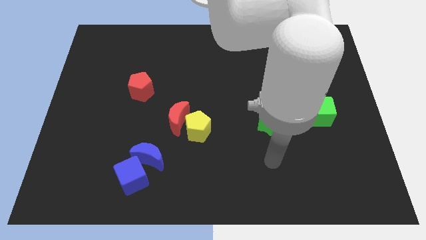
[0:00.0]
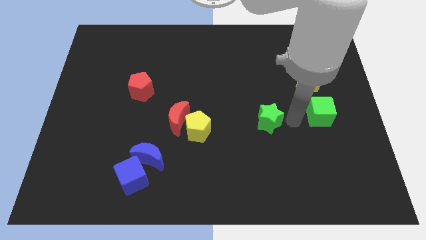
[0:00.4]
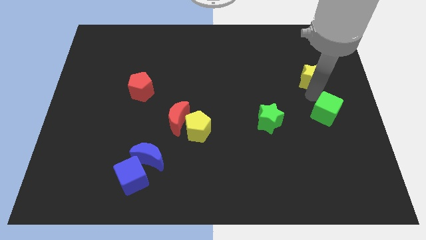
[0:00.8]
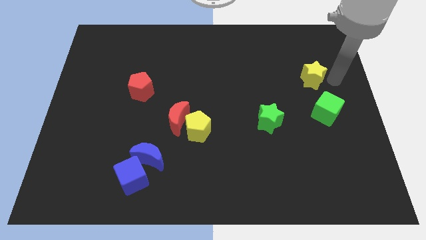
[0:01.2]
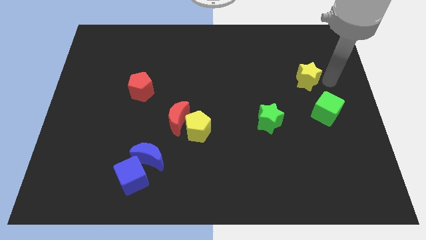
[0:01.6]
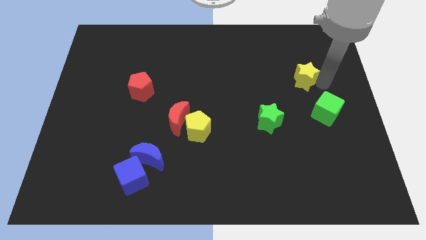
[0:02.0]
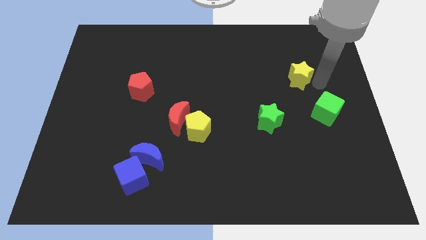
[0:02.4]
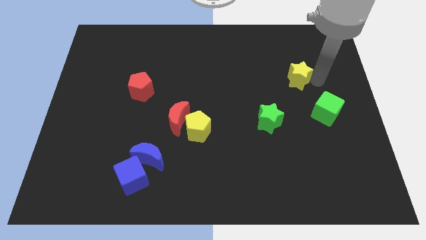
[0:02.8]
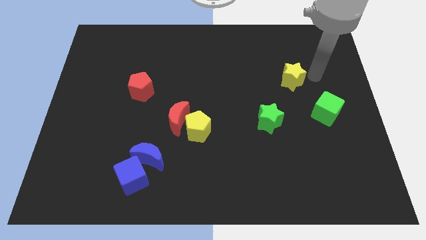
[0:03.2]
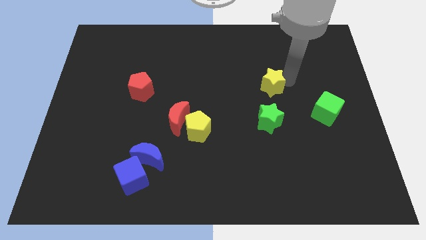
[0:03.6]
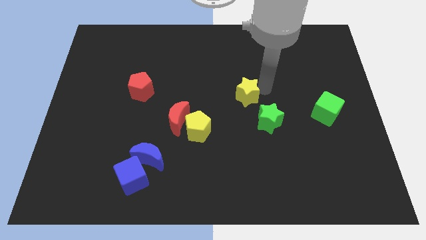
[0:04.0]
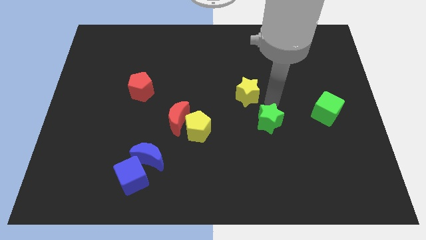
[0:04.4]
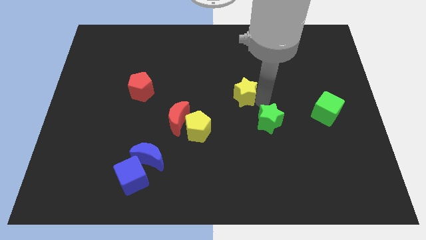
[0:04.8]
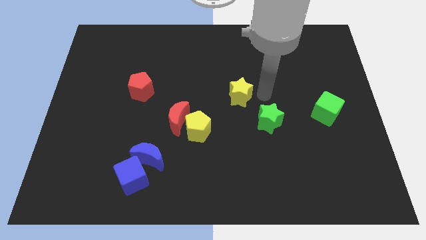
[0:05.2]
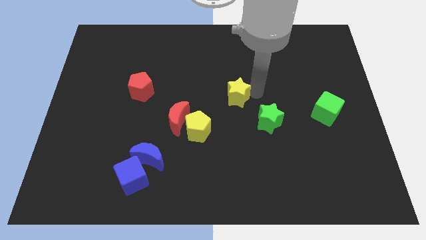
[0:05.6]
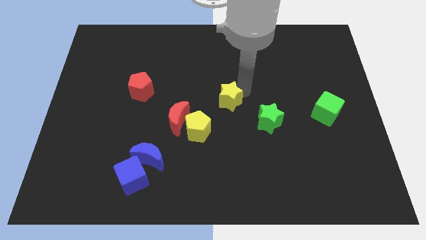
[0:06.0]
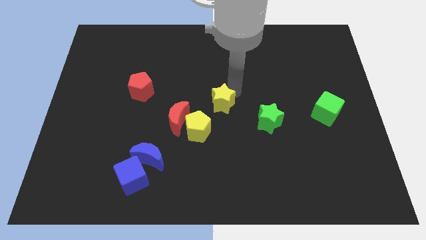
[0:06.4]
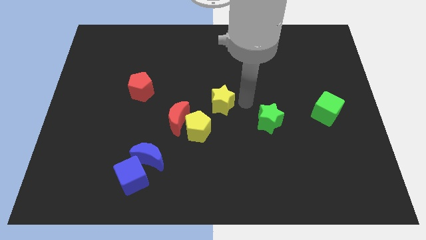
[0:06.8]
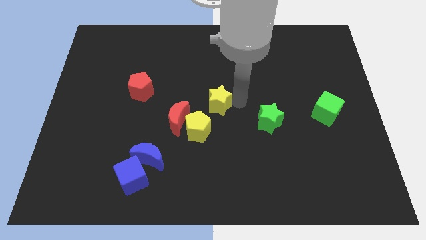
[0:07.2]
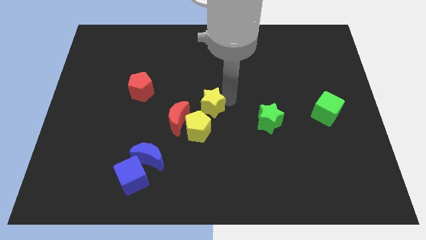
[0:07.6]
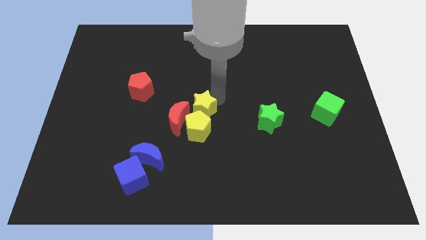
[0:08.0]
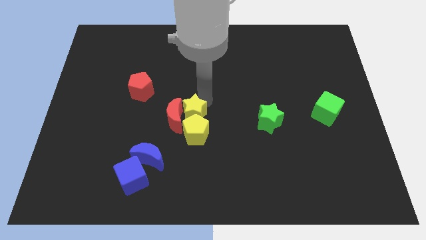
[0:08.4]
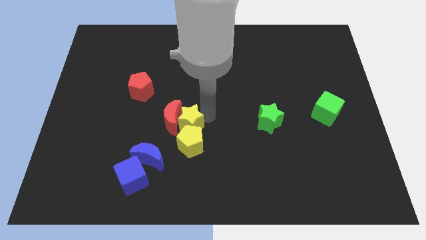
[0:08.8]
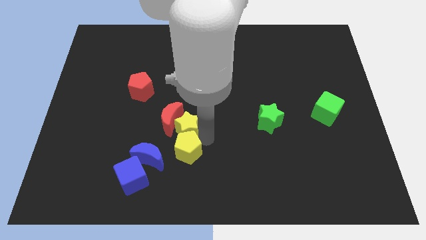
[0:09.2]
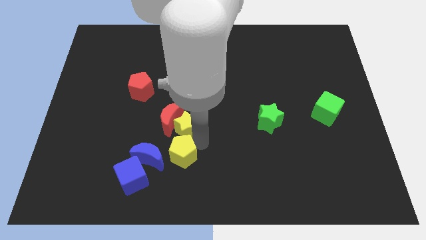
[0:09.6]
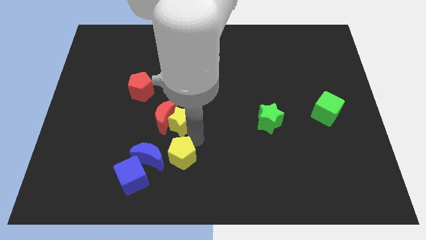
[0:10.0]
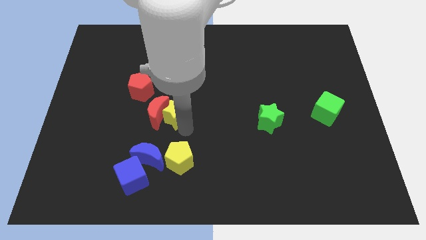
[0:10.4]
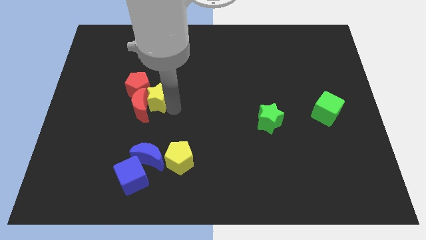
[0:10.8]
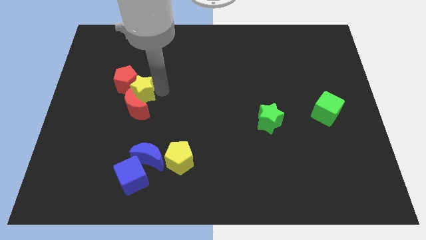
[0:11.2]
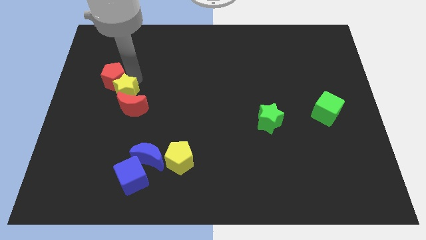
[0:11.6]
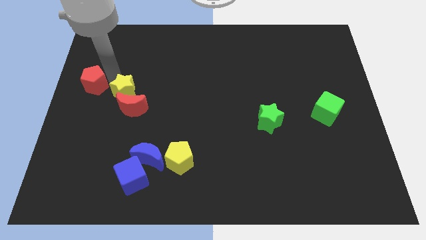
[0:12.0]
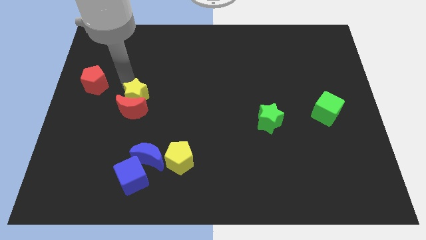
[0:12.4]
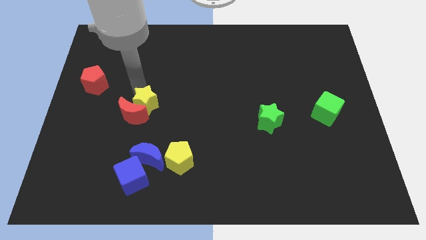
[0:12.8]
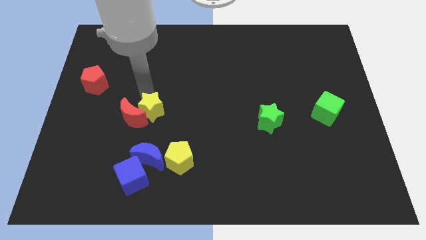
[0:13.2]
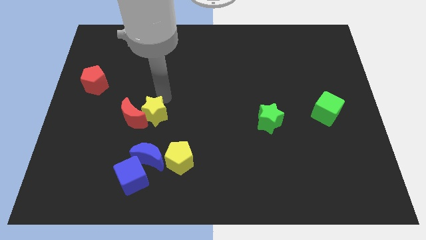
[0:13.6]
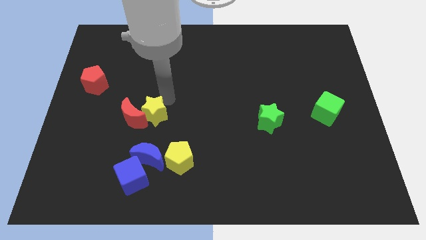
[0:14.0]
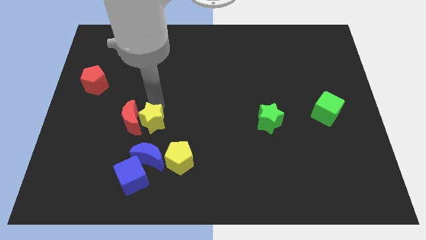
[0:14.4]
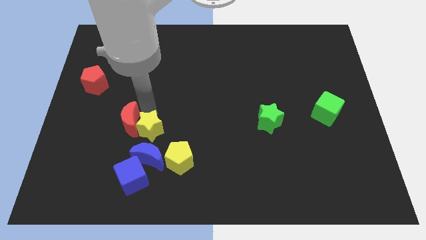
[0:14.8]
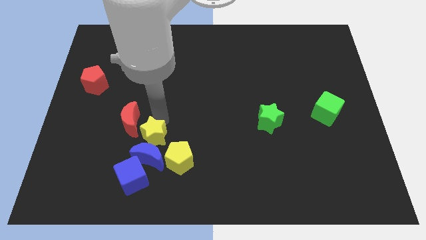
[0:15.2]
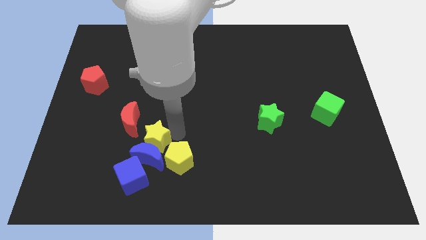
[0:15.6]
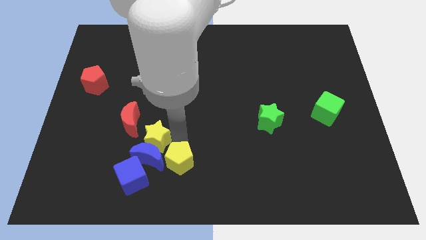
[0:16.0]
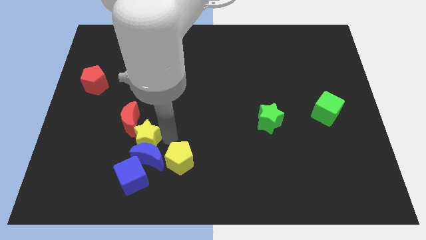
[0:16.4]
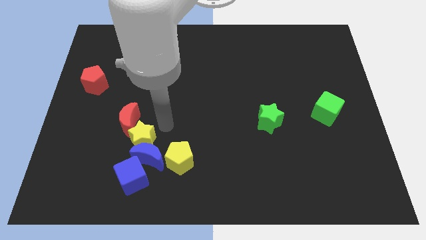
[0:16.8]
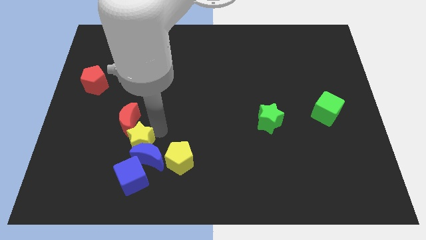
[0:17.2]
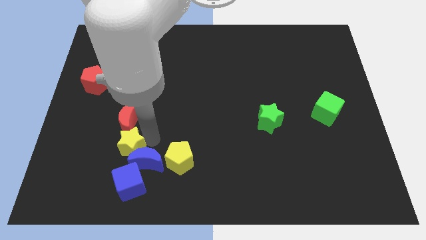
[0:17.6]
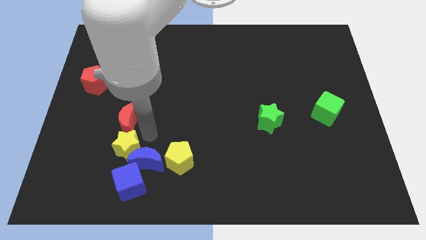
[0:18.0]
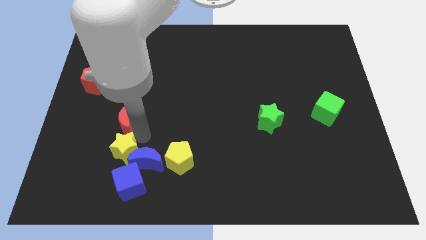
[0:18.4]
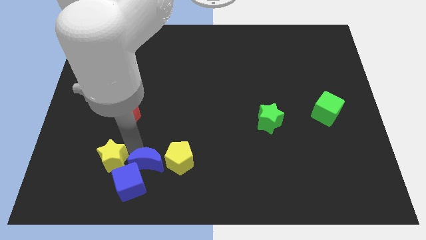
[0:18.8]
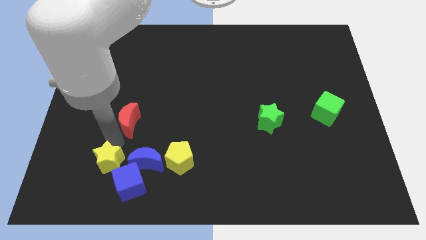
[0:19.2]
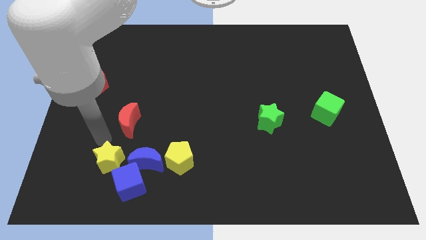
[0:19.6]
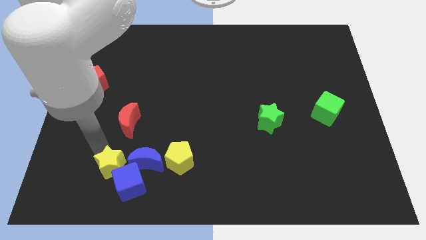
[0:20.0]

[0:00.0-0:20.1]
slide the yellow star to the bottom left of the blue moon

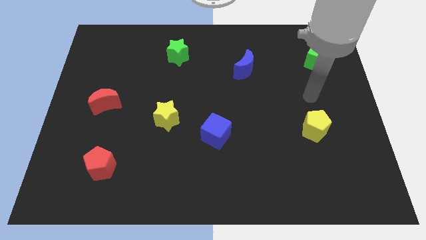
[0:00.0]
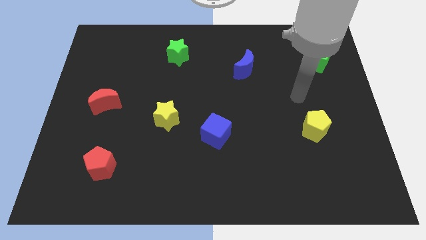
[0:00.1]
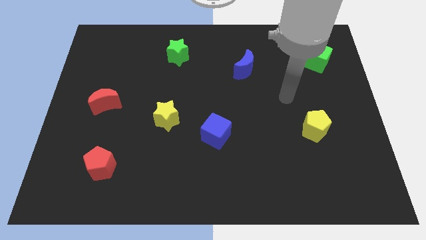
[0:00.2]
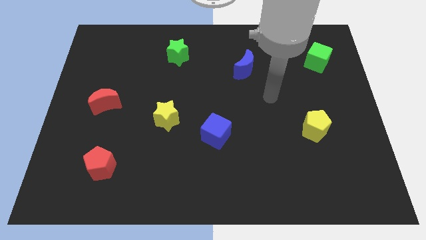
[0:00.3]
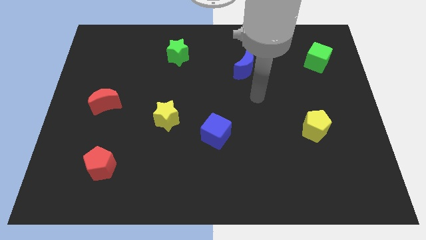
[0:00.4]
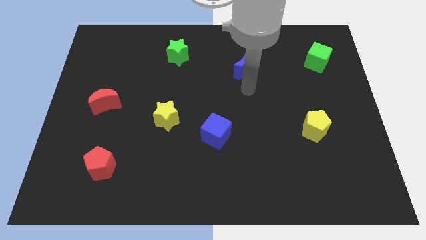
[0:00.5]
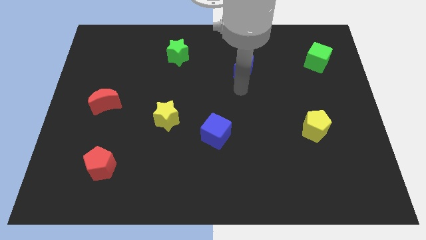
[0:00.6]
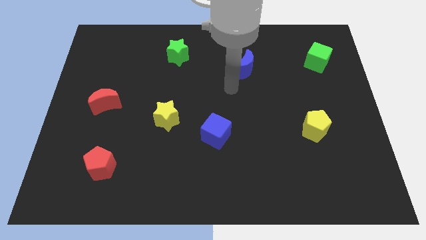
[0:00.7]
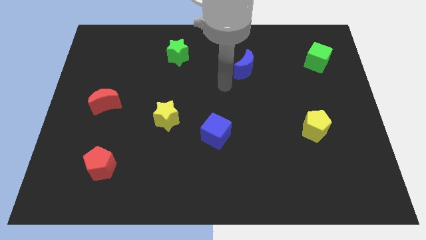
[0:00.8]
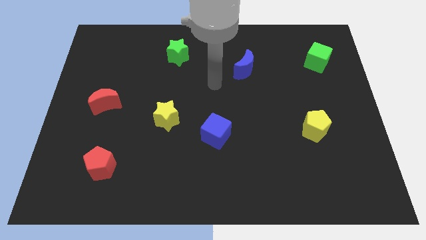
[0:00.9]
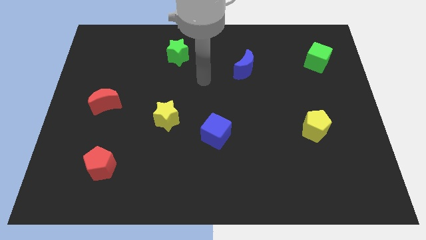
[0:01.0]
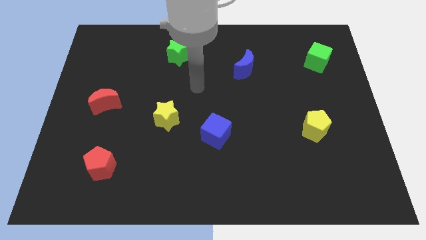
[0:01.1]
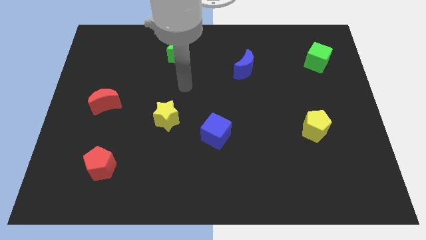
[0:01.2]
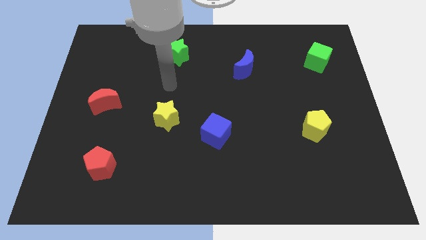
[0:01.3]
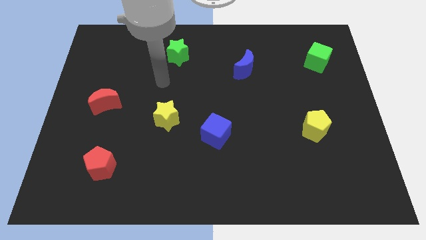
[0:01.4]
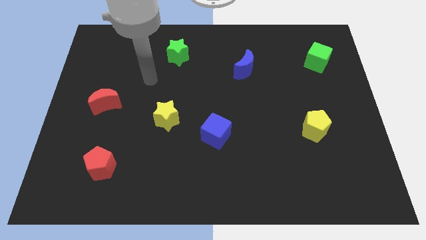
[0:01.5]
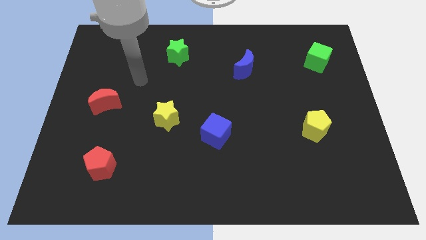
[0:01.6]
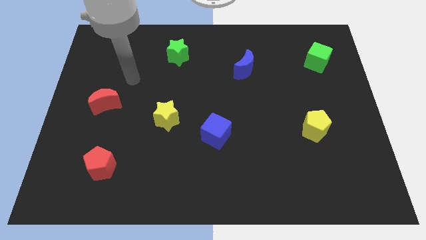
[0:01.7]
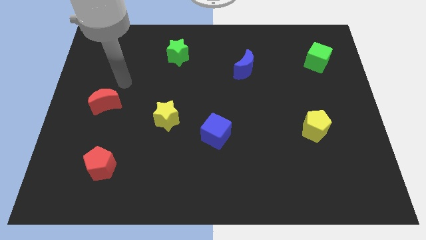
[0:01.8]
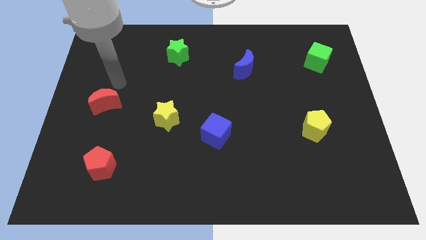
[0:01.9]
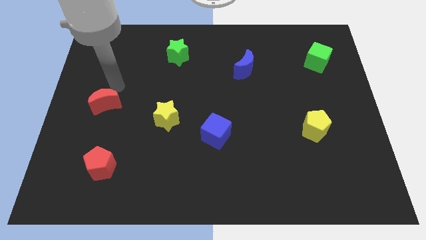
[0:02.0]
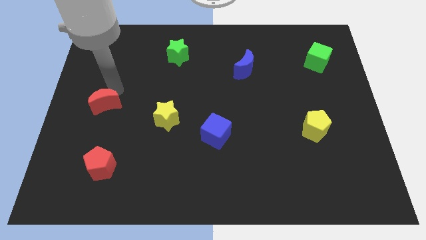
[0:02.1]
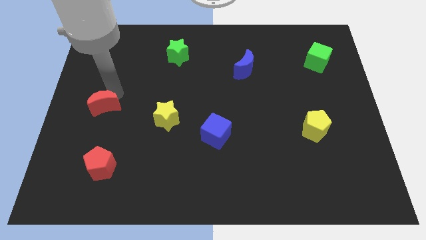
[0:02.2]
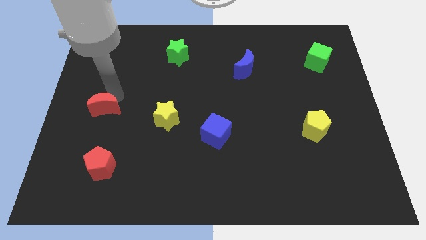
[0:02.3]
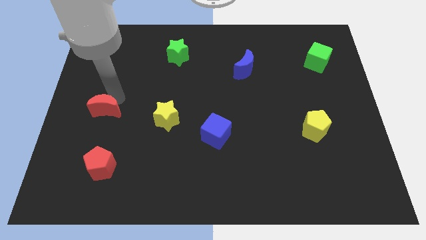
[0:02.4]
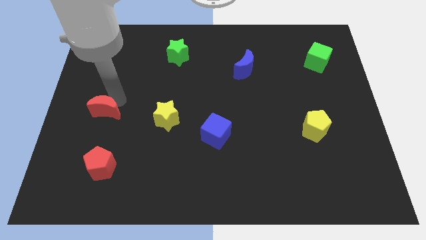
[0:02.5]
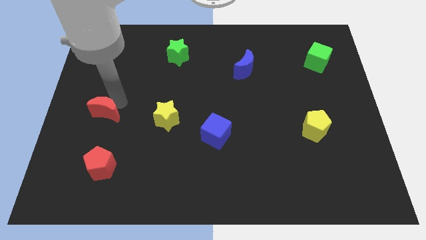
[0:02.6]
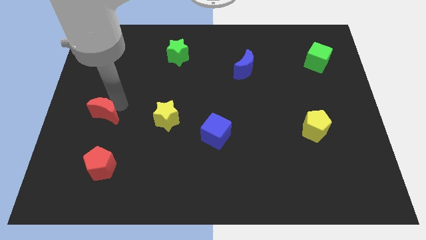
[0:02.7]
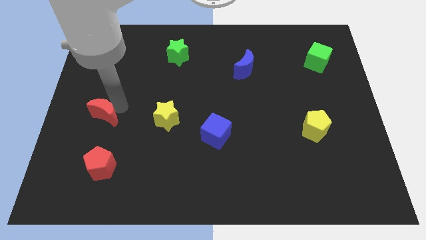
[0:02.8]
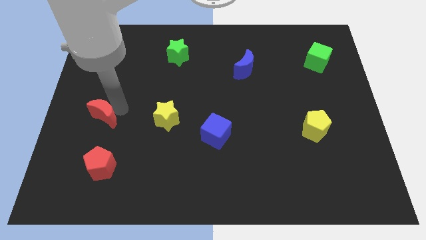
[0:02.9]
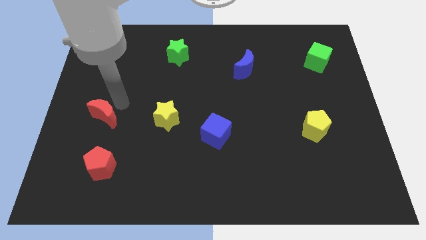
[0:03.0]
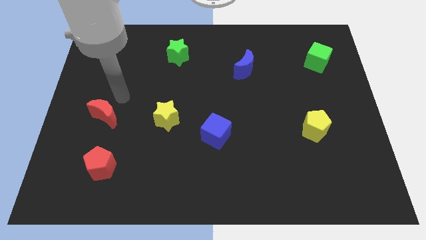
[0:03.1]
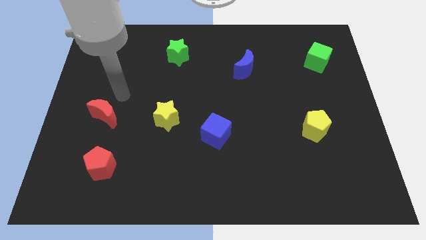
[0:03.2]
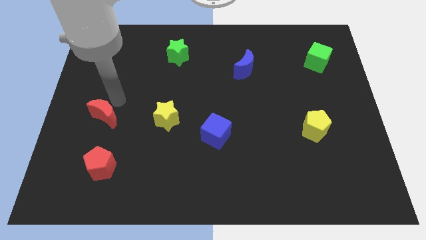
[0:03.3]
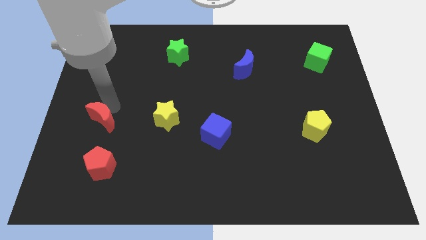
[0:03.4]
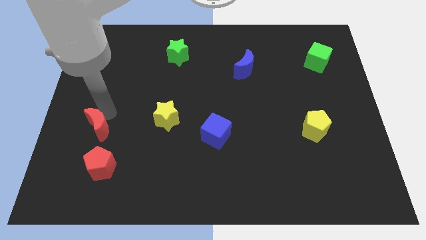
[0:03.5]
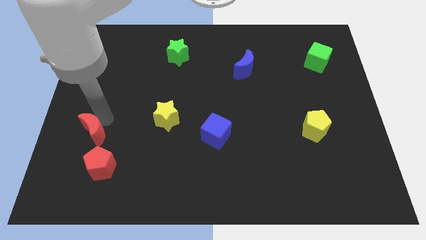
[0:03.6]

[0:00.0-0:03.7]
put the red moon diagonally up and to the left of the red pentagon
